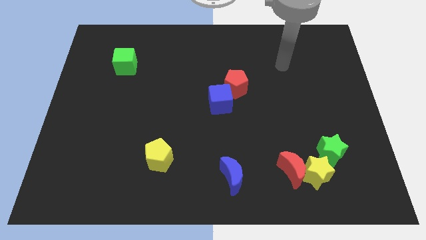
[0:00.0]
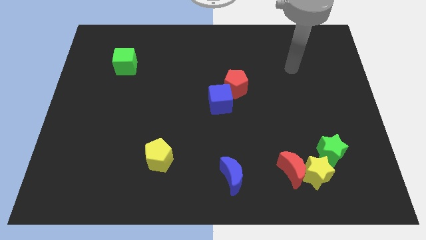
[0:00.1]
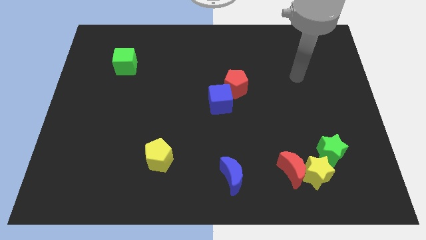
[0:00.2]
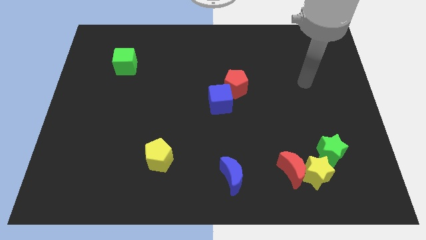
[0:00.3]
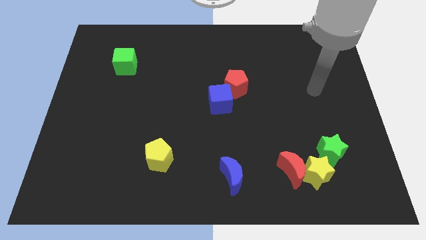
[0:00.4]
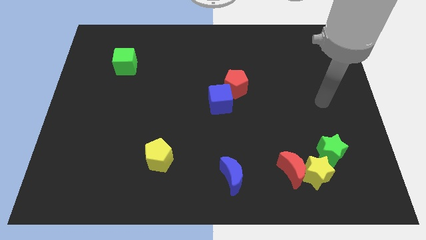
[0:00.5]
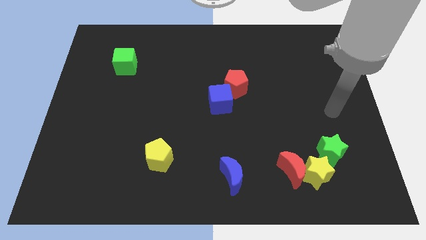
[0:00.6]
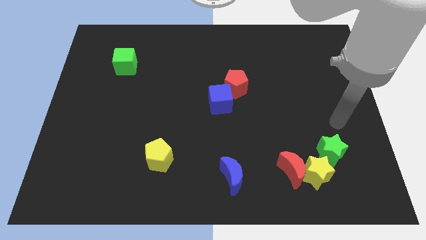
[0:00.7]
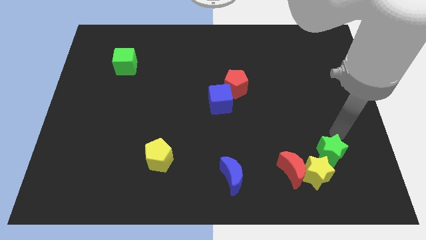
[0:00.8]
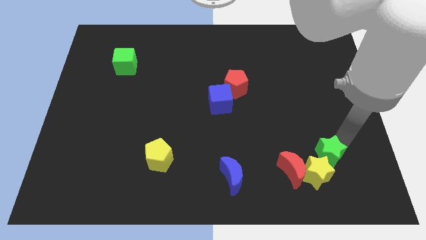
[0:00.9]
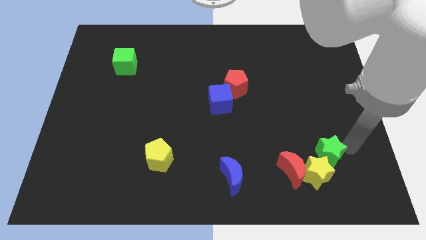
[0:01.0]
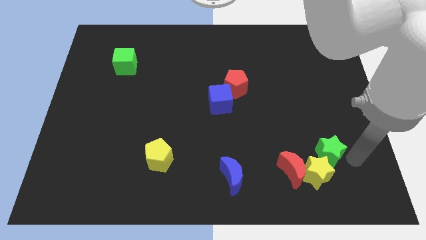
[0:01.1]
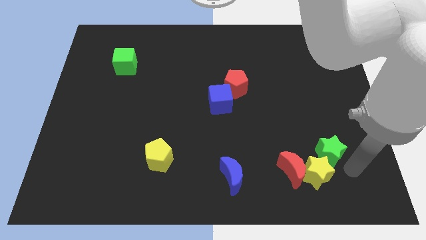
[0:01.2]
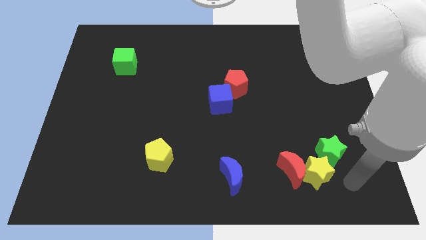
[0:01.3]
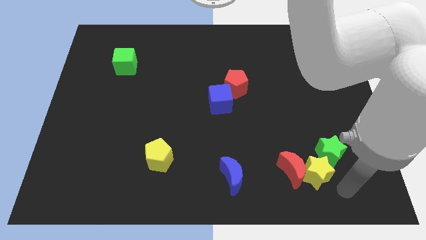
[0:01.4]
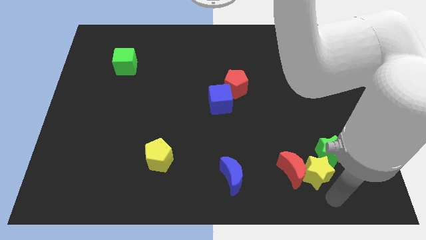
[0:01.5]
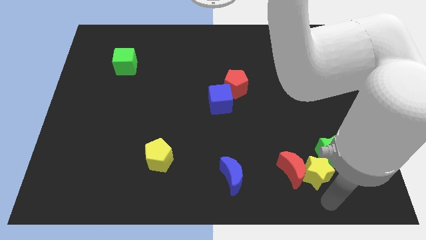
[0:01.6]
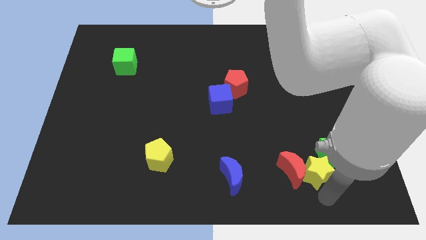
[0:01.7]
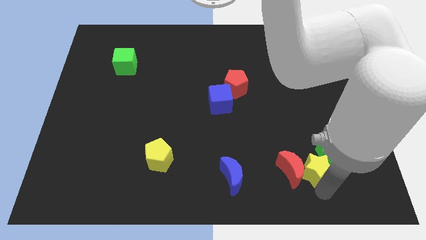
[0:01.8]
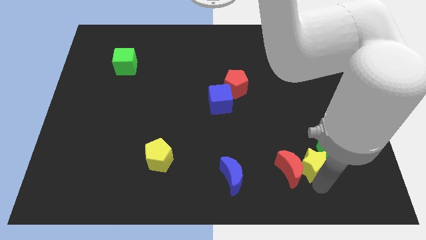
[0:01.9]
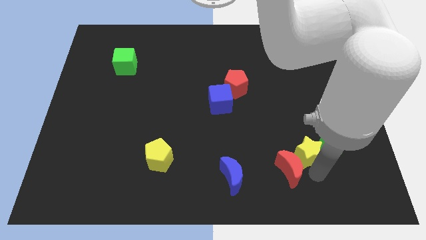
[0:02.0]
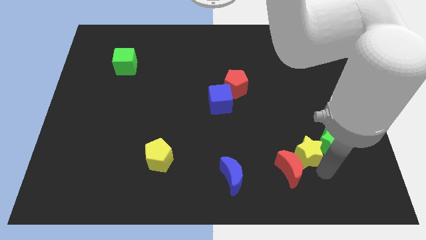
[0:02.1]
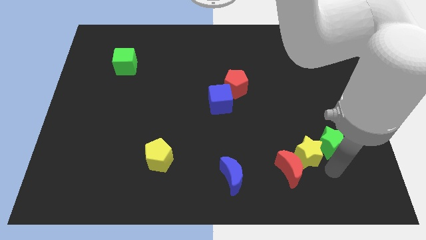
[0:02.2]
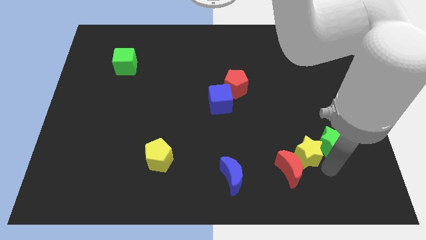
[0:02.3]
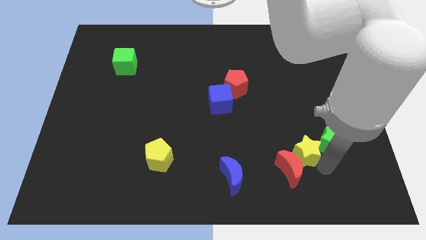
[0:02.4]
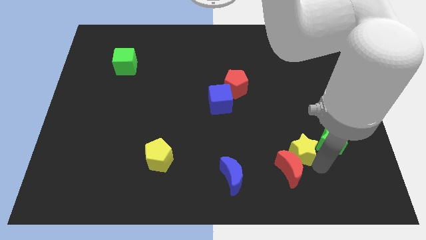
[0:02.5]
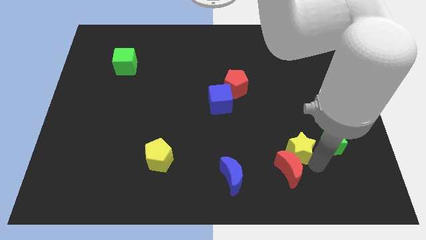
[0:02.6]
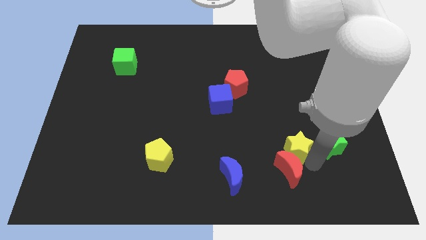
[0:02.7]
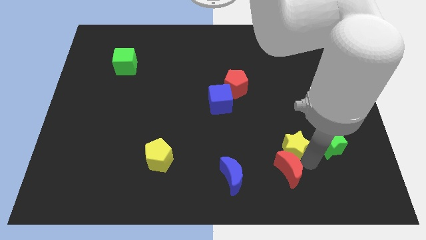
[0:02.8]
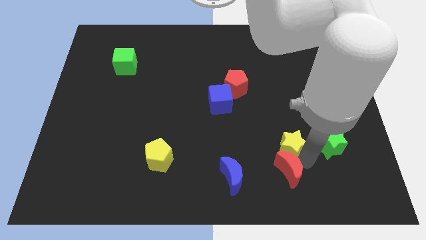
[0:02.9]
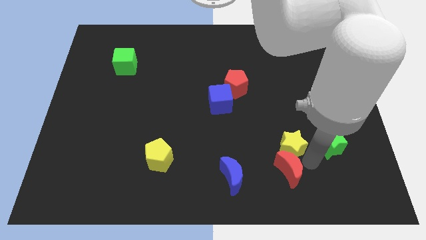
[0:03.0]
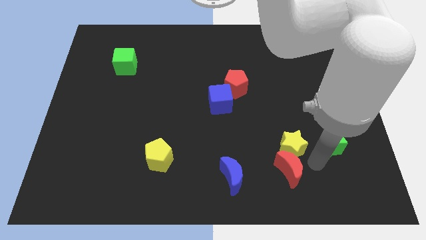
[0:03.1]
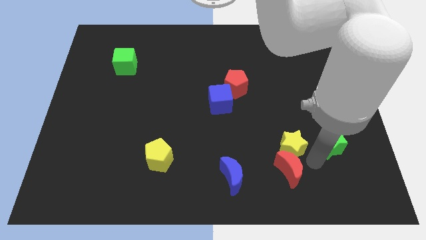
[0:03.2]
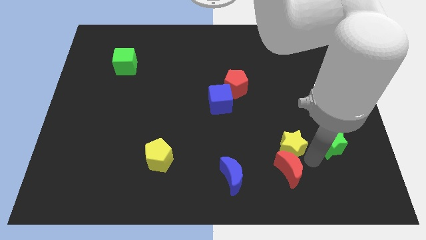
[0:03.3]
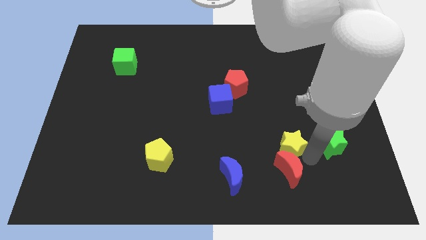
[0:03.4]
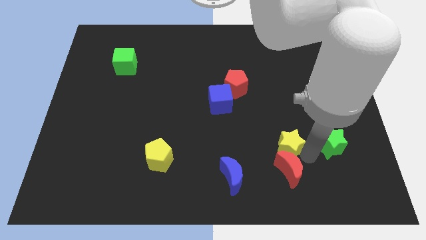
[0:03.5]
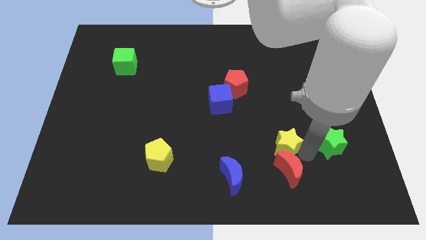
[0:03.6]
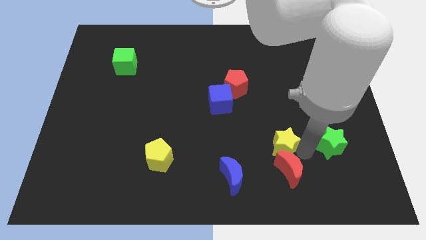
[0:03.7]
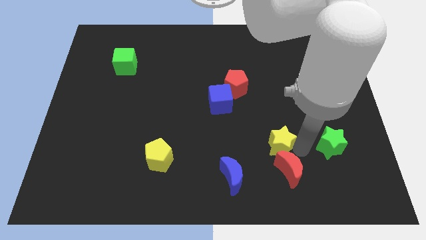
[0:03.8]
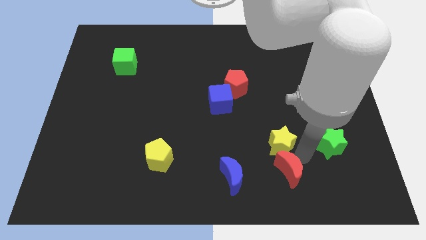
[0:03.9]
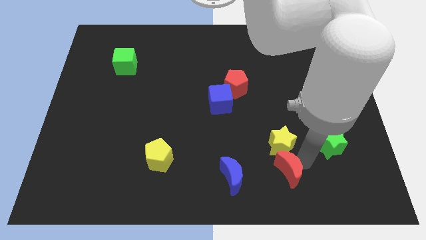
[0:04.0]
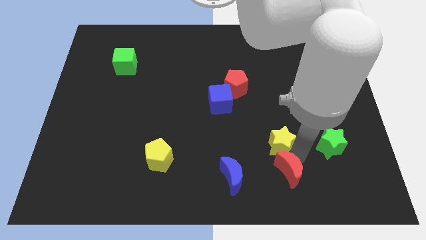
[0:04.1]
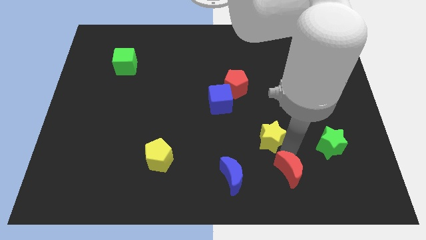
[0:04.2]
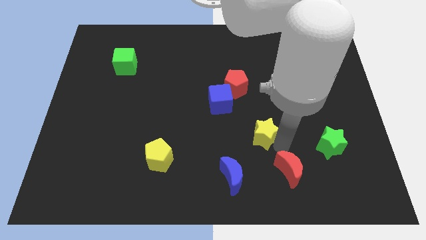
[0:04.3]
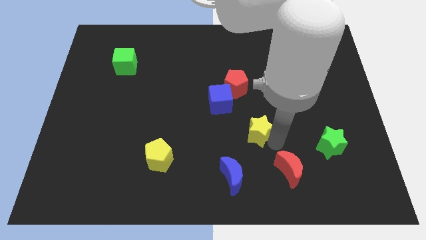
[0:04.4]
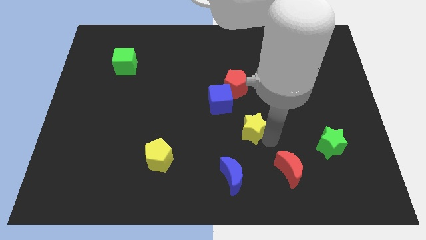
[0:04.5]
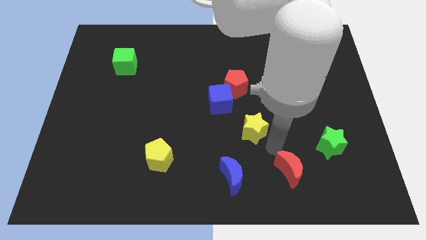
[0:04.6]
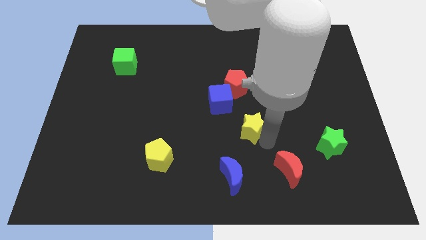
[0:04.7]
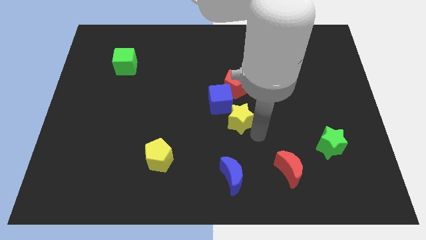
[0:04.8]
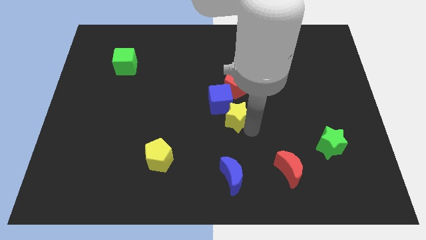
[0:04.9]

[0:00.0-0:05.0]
slide the yellow star to the blue cube

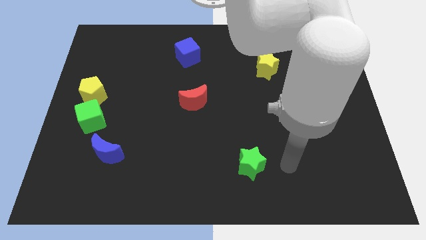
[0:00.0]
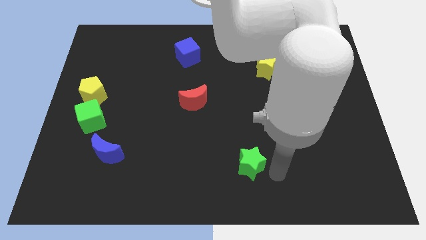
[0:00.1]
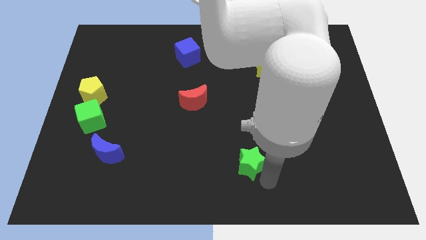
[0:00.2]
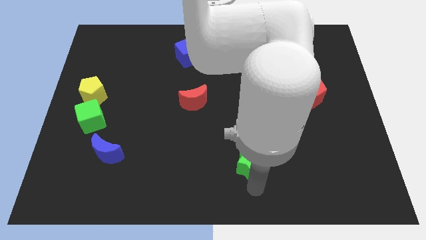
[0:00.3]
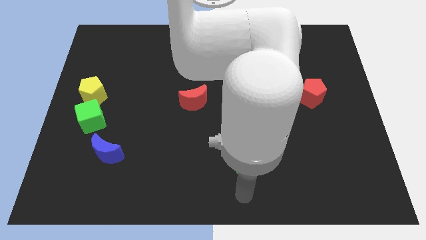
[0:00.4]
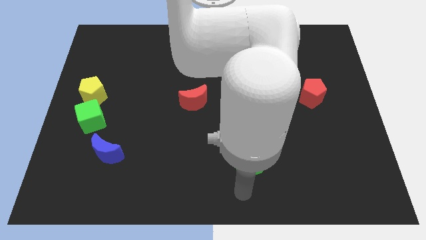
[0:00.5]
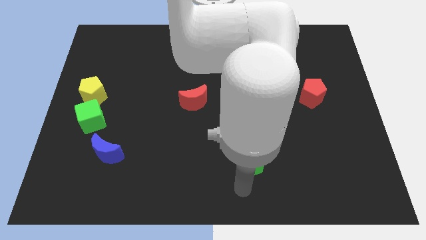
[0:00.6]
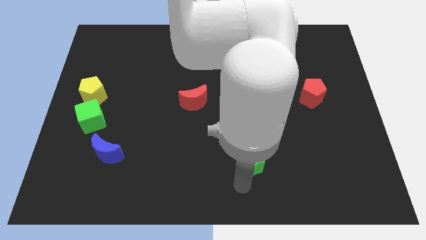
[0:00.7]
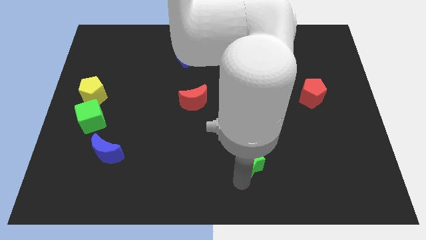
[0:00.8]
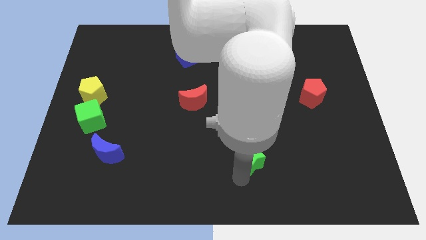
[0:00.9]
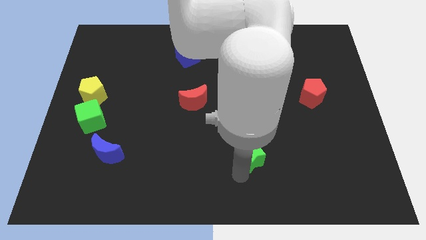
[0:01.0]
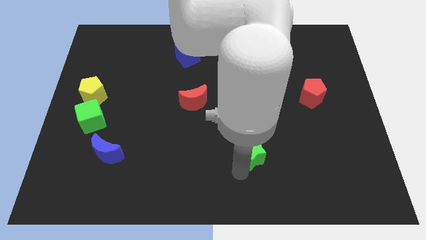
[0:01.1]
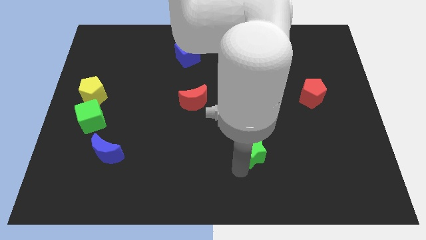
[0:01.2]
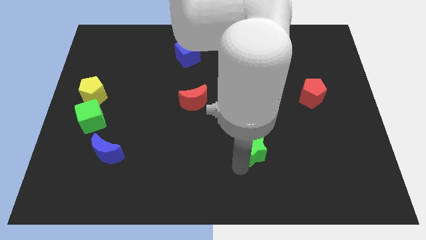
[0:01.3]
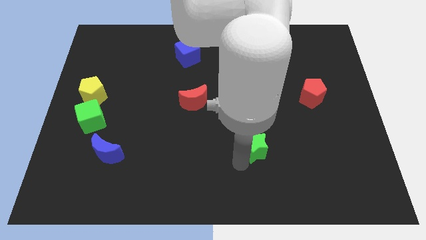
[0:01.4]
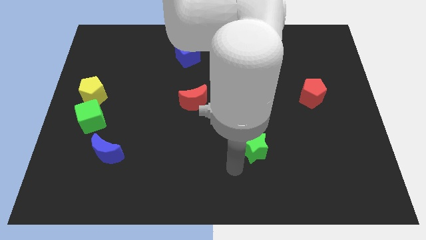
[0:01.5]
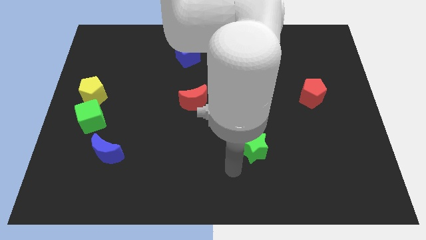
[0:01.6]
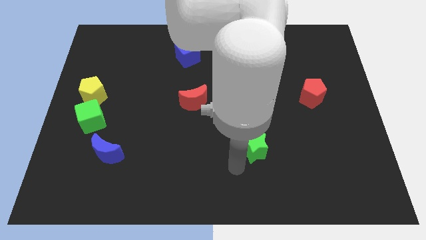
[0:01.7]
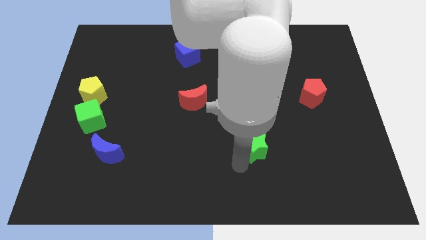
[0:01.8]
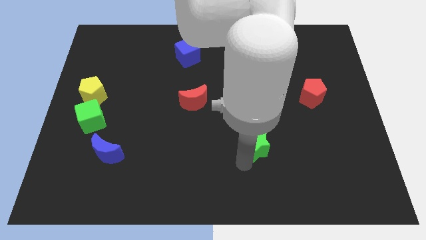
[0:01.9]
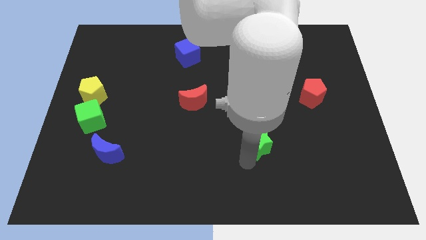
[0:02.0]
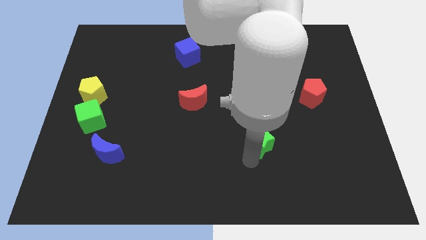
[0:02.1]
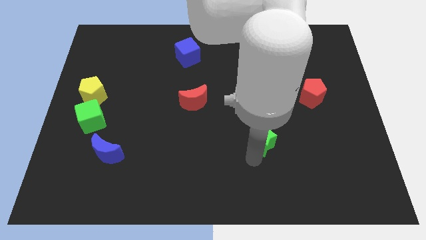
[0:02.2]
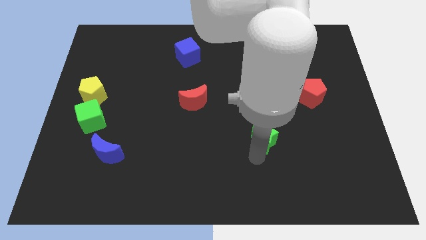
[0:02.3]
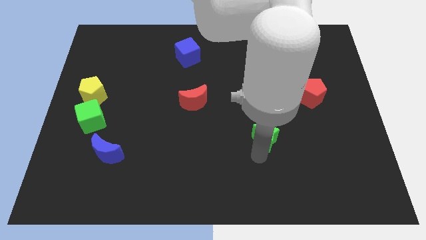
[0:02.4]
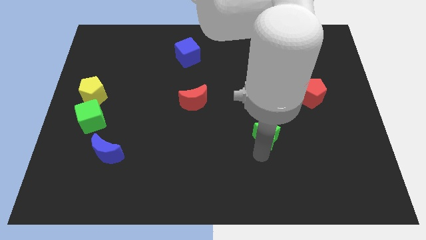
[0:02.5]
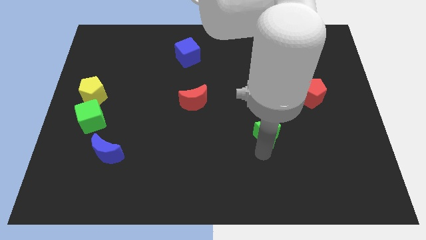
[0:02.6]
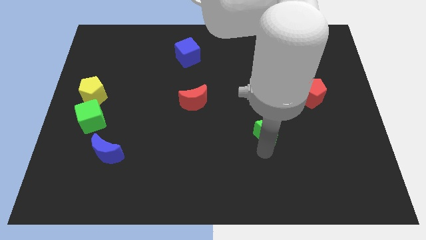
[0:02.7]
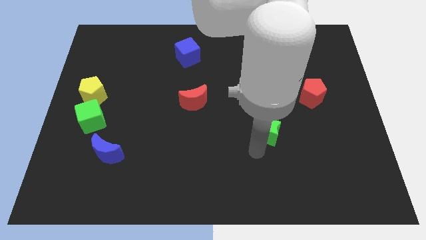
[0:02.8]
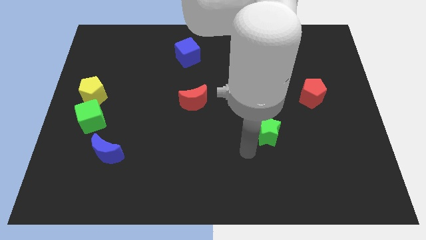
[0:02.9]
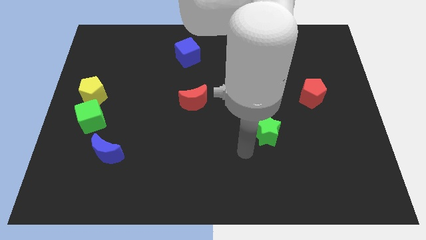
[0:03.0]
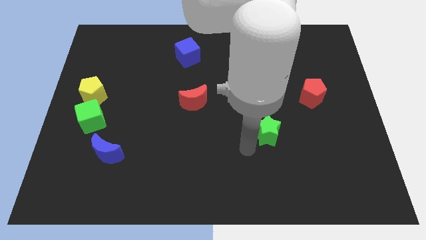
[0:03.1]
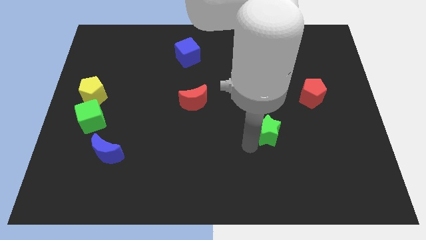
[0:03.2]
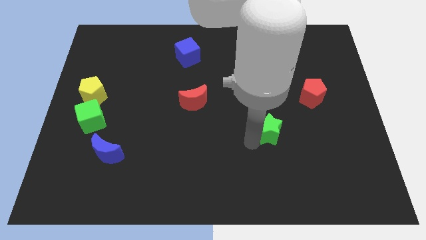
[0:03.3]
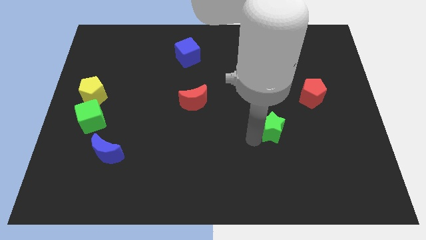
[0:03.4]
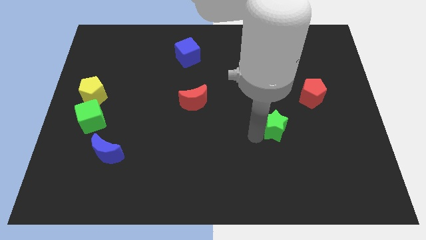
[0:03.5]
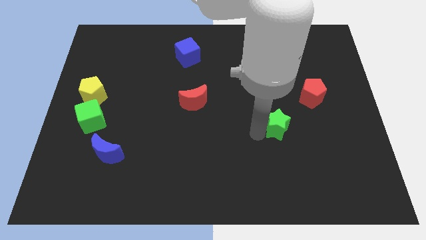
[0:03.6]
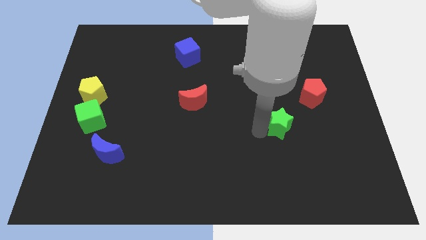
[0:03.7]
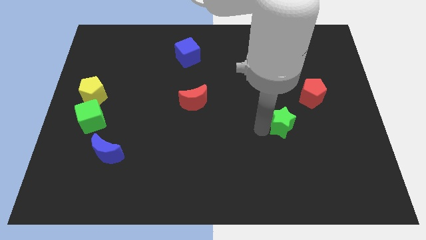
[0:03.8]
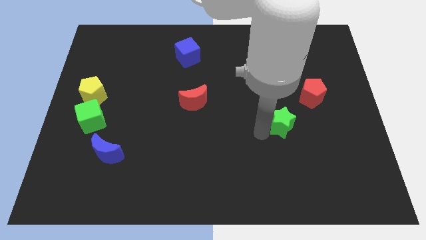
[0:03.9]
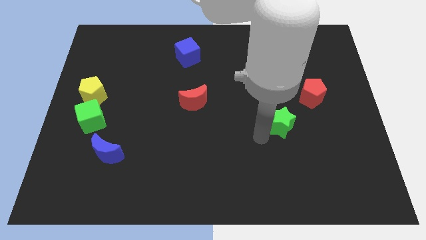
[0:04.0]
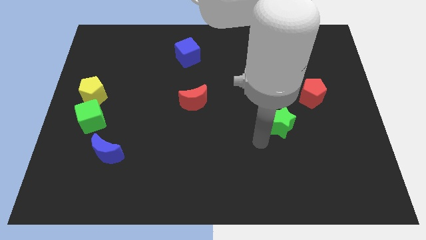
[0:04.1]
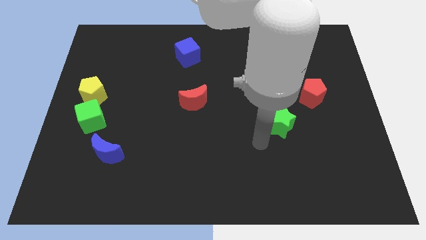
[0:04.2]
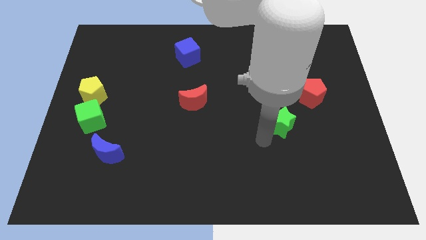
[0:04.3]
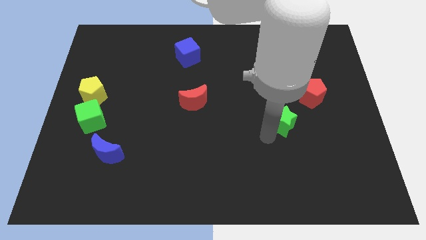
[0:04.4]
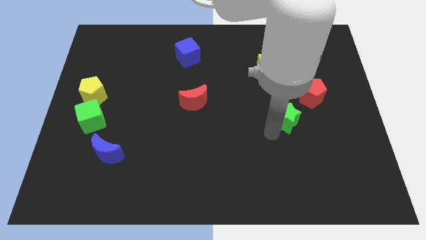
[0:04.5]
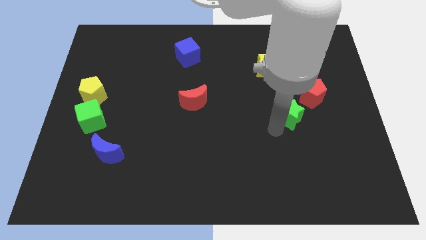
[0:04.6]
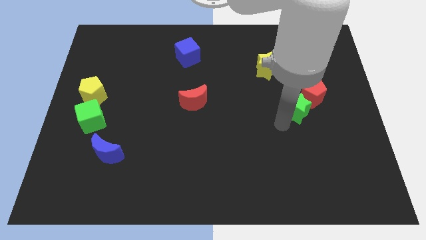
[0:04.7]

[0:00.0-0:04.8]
push the green star close to the red pentagon
